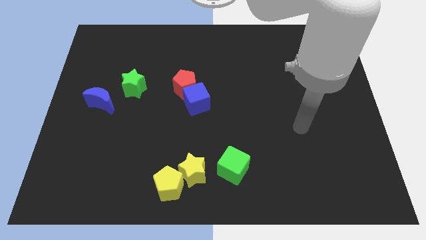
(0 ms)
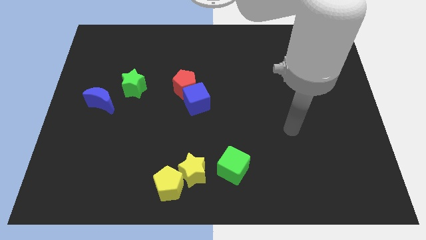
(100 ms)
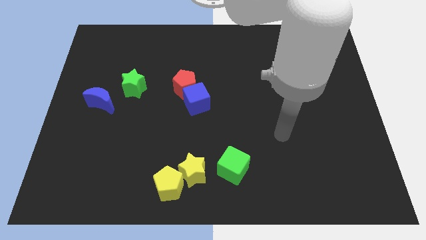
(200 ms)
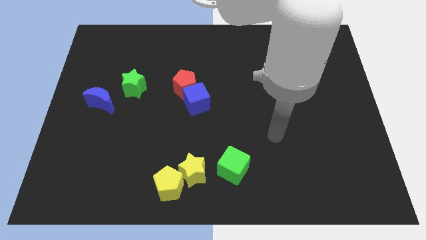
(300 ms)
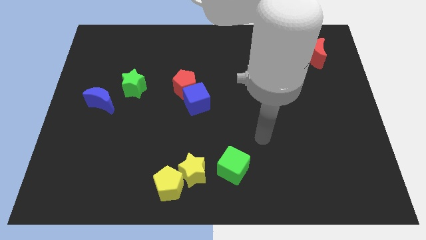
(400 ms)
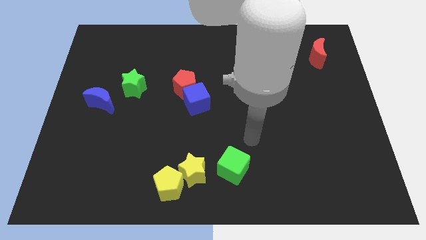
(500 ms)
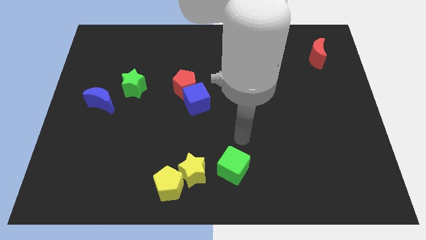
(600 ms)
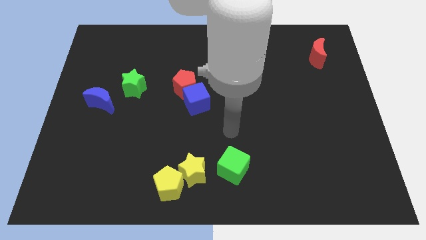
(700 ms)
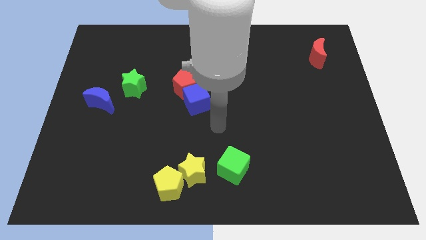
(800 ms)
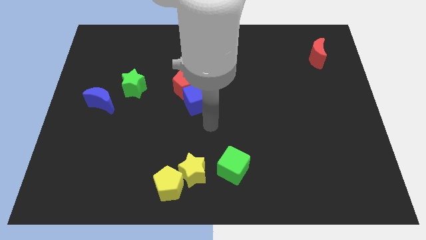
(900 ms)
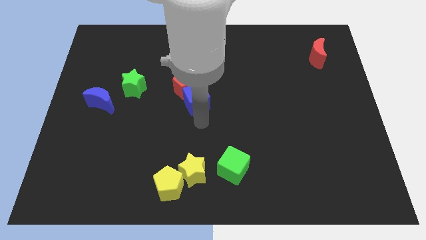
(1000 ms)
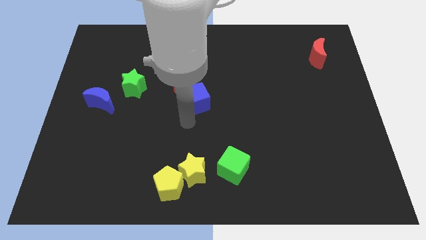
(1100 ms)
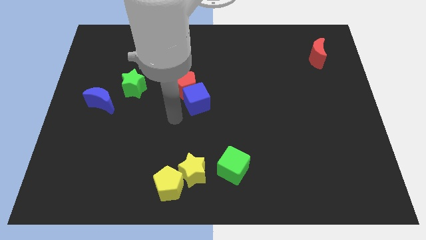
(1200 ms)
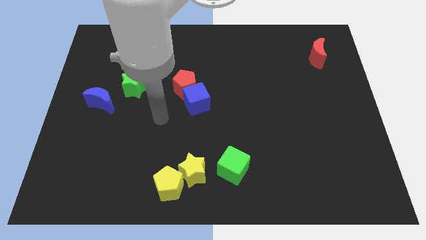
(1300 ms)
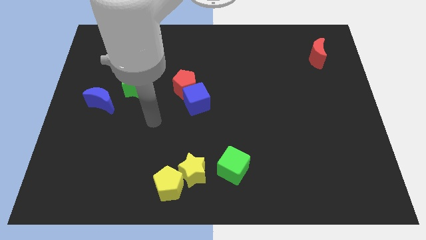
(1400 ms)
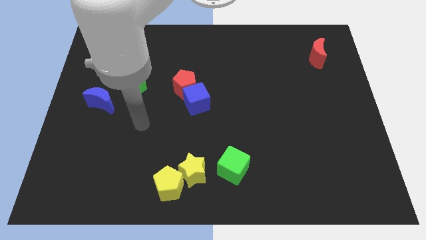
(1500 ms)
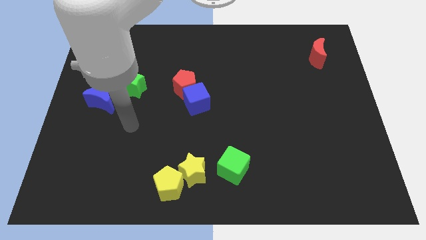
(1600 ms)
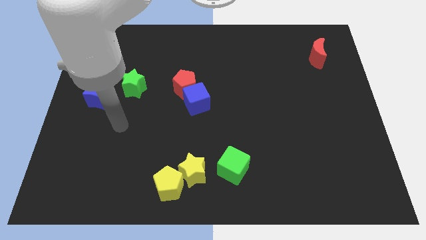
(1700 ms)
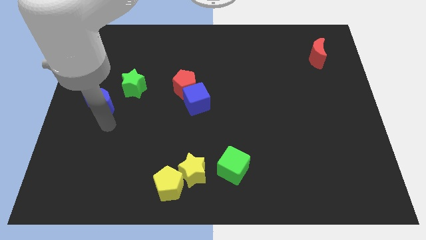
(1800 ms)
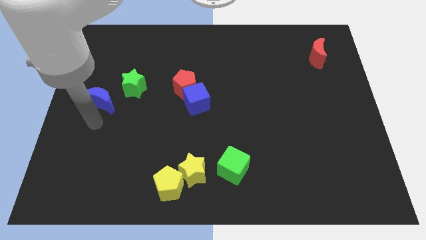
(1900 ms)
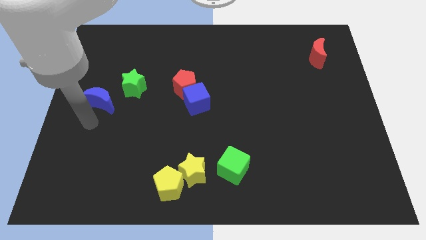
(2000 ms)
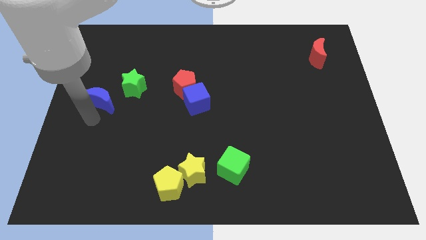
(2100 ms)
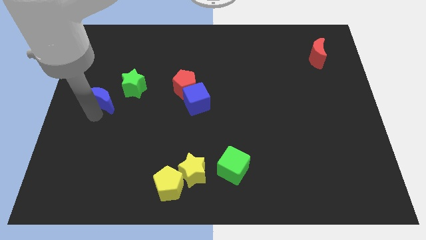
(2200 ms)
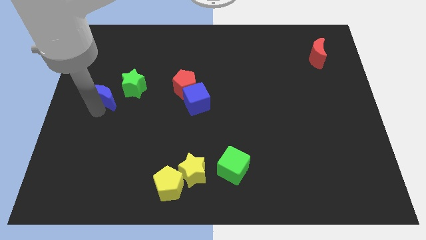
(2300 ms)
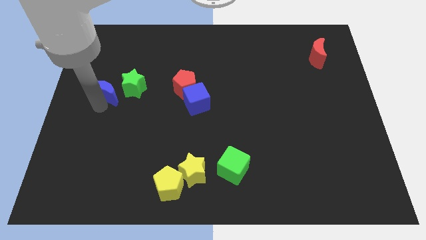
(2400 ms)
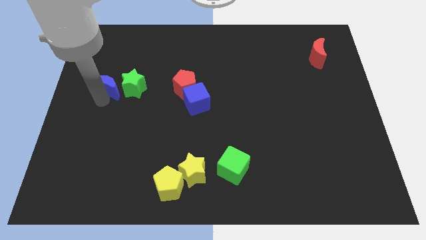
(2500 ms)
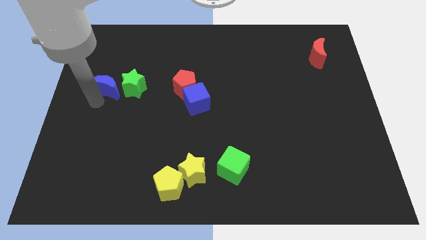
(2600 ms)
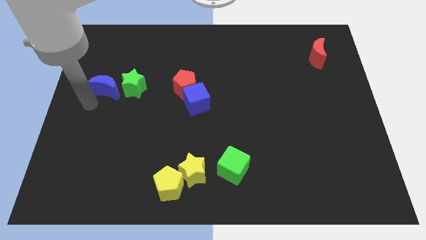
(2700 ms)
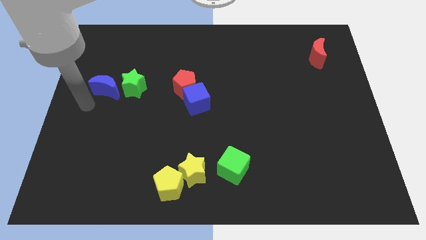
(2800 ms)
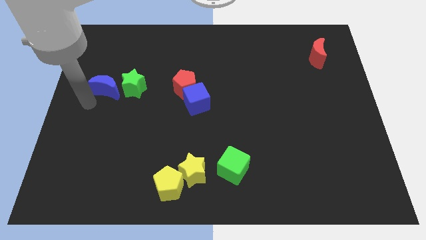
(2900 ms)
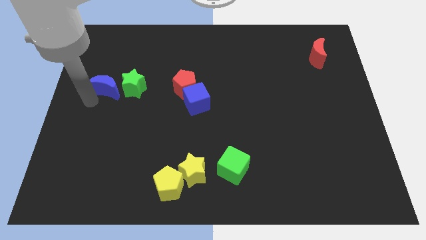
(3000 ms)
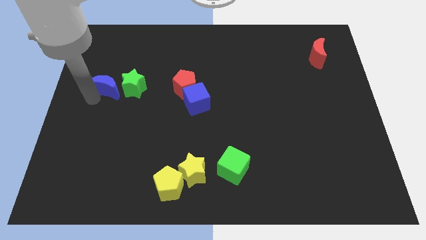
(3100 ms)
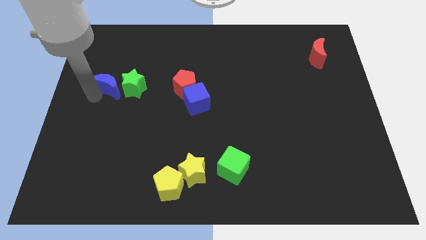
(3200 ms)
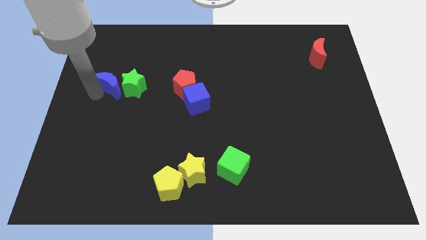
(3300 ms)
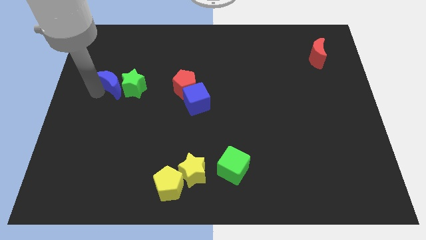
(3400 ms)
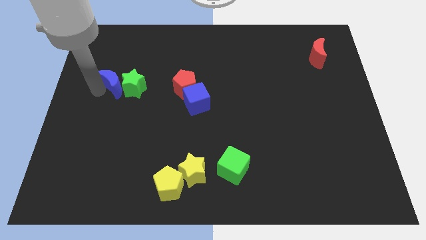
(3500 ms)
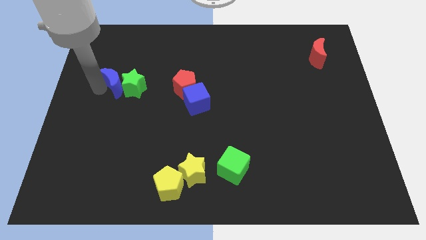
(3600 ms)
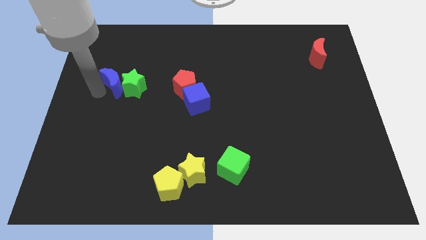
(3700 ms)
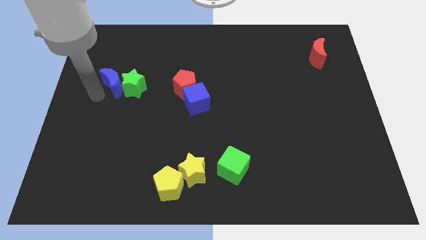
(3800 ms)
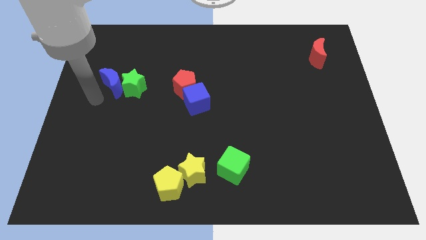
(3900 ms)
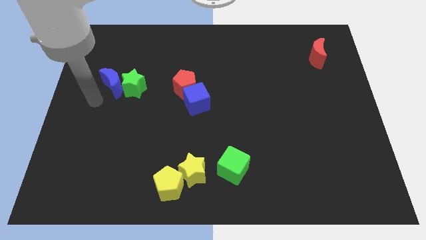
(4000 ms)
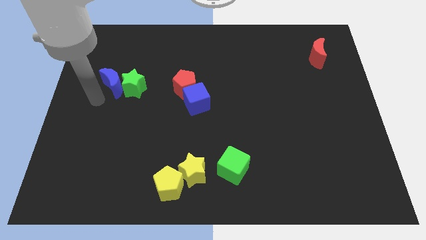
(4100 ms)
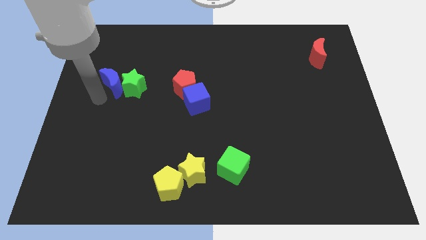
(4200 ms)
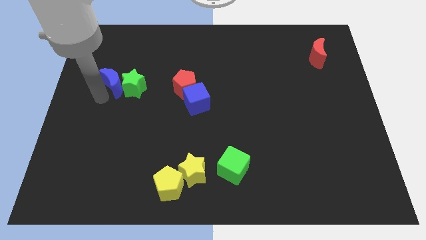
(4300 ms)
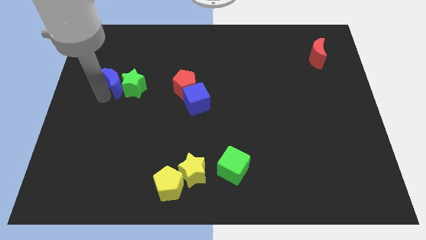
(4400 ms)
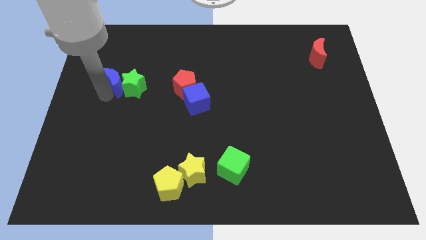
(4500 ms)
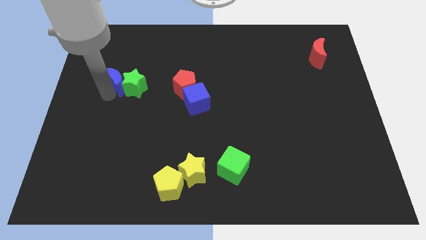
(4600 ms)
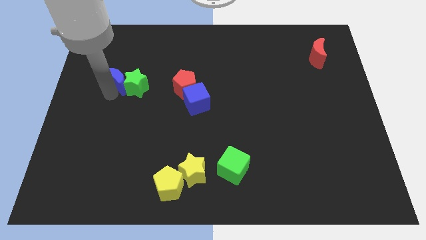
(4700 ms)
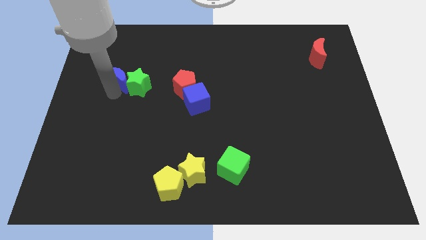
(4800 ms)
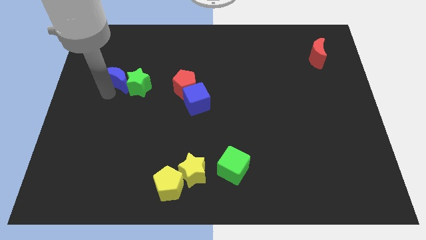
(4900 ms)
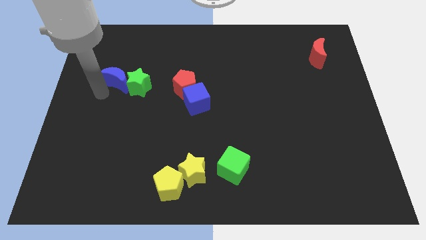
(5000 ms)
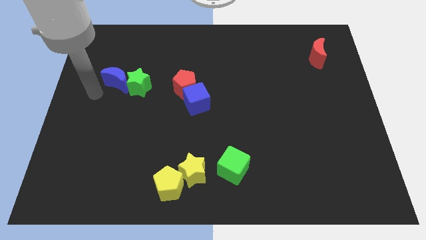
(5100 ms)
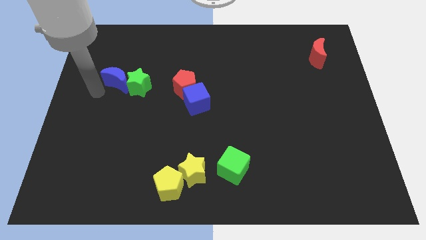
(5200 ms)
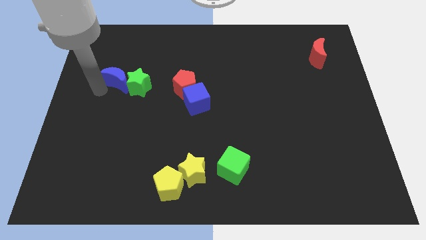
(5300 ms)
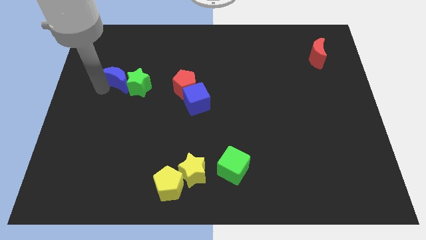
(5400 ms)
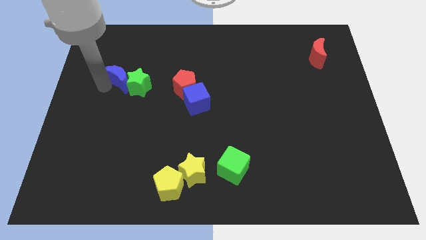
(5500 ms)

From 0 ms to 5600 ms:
push the blue moon a little diagonally up and to the right

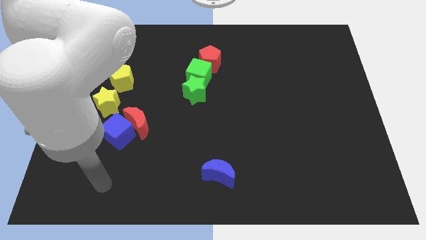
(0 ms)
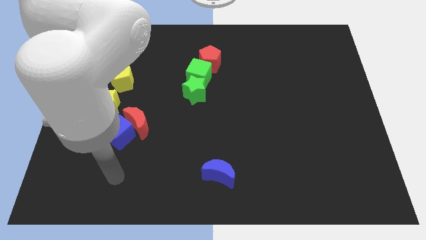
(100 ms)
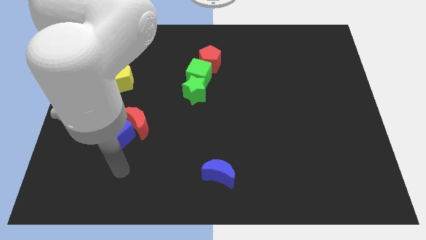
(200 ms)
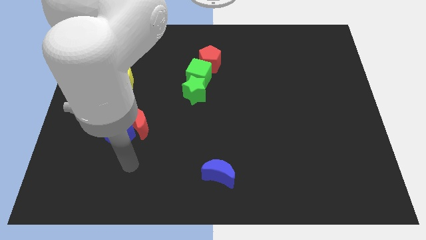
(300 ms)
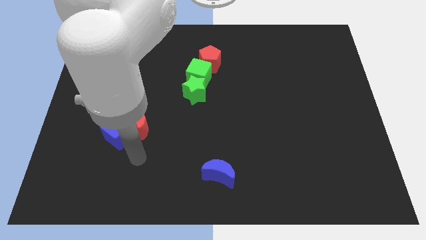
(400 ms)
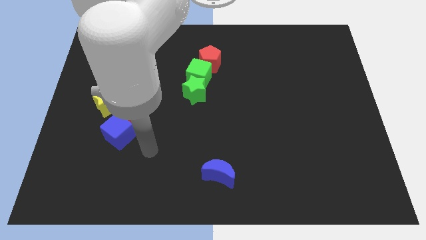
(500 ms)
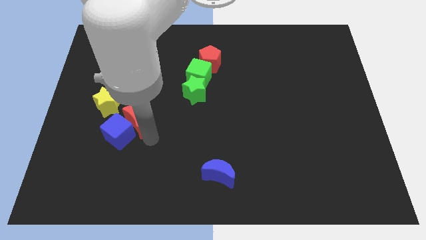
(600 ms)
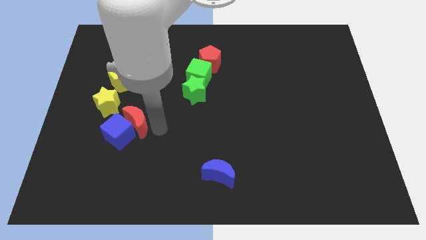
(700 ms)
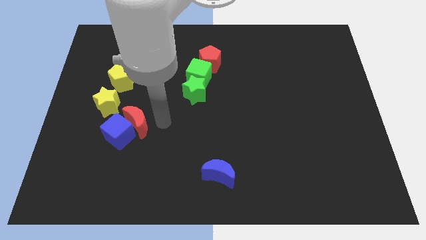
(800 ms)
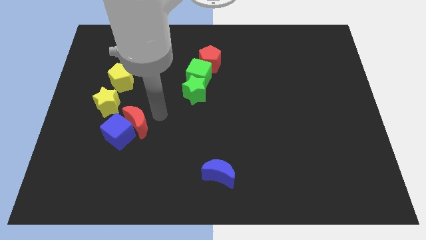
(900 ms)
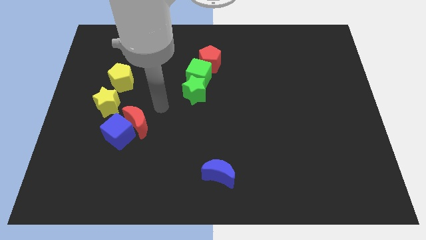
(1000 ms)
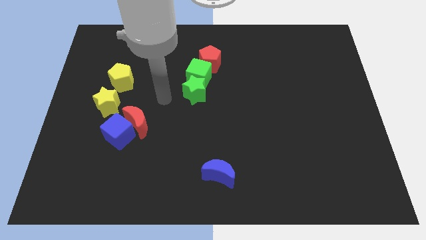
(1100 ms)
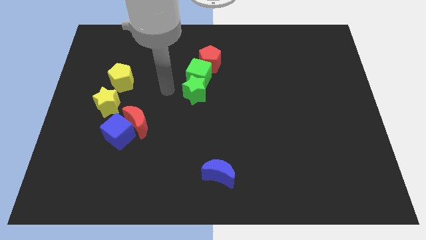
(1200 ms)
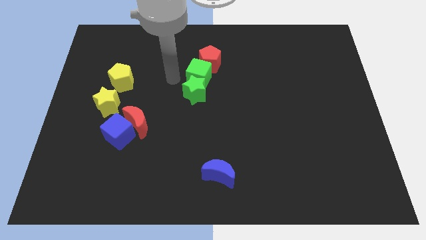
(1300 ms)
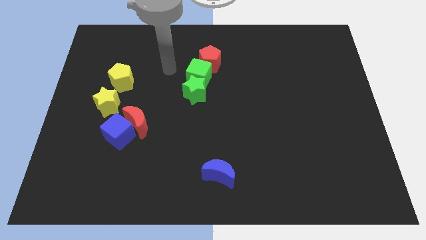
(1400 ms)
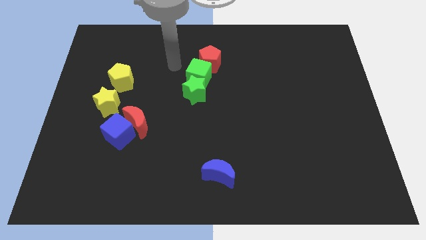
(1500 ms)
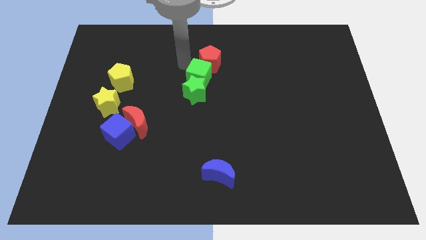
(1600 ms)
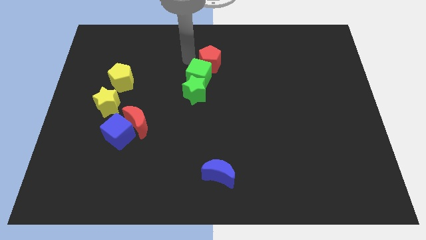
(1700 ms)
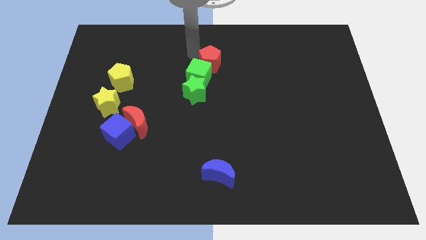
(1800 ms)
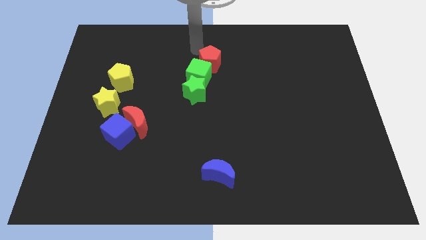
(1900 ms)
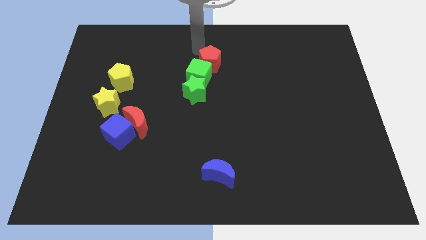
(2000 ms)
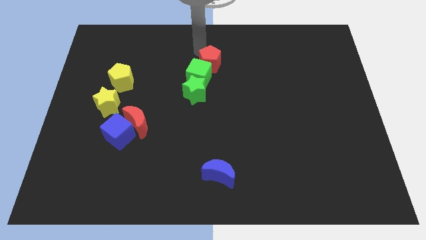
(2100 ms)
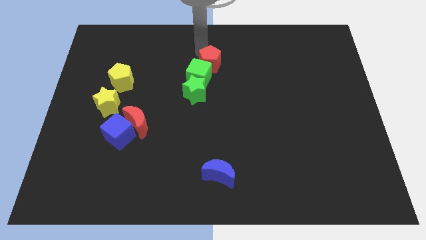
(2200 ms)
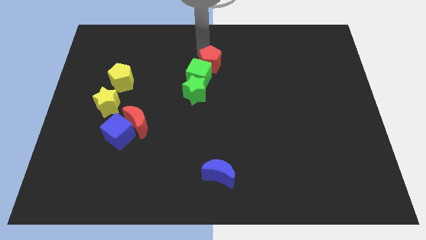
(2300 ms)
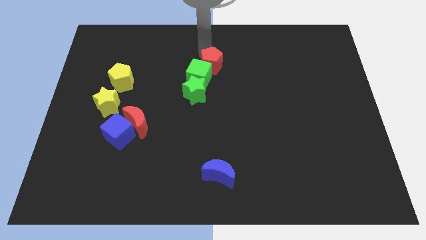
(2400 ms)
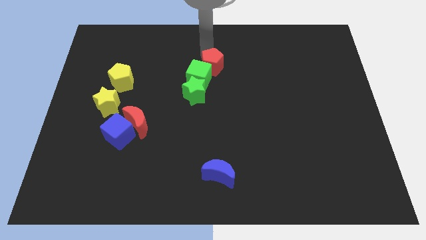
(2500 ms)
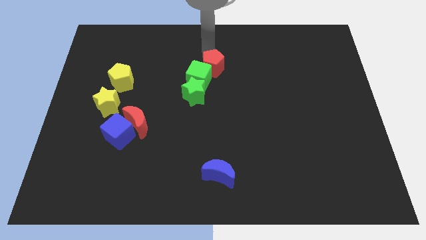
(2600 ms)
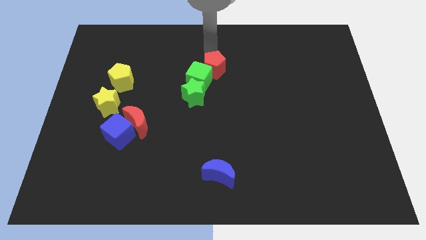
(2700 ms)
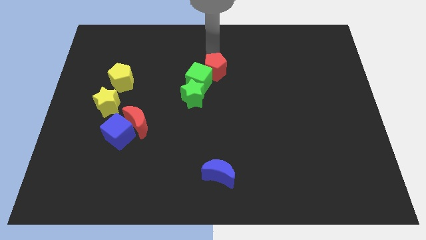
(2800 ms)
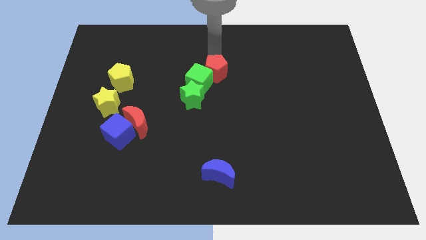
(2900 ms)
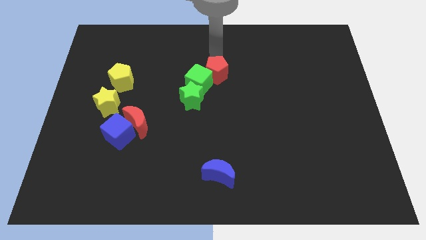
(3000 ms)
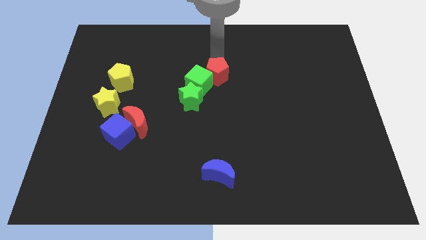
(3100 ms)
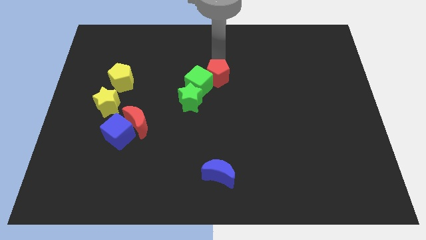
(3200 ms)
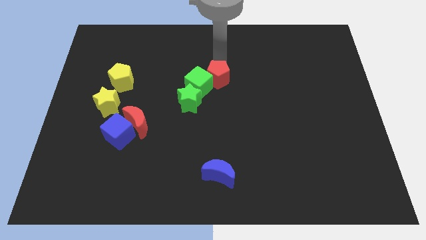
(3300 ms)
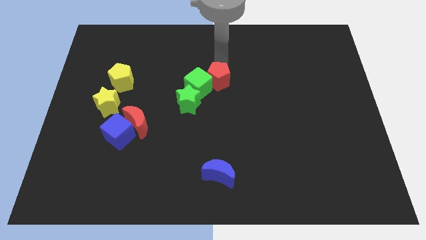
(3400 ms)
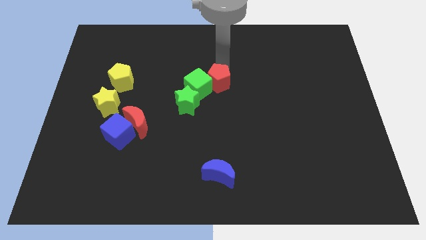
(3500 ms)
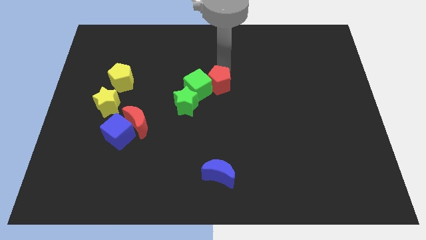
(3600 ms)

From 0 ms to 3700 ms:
slide the red pentagon downwards a bit
